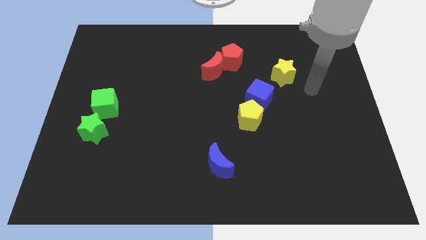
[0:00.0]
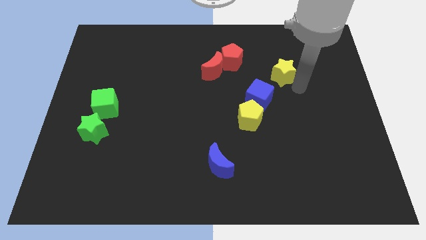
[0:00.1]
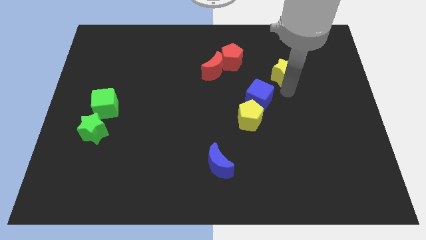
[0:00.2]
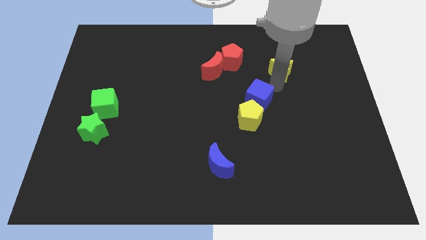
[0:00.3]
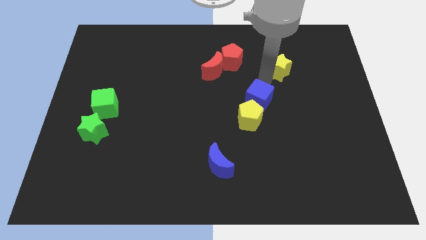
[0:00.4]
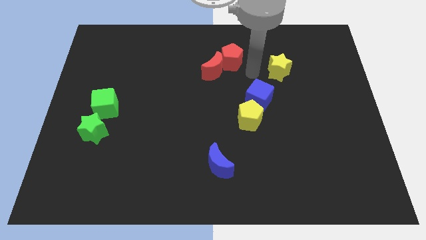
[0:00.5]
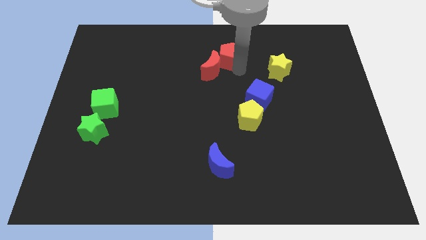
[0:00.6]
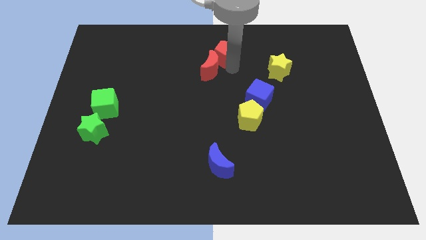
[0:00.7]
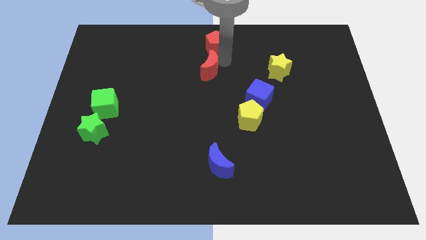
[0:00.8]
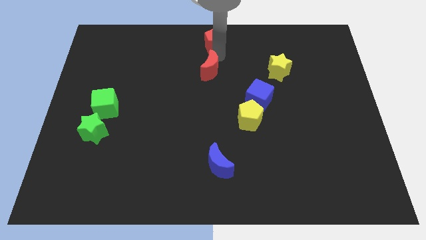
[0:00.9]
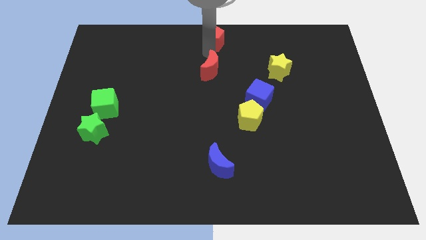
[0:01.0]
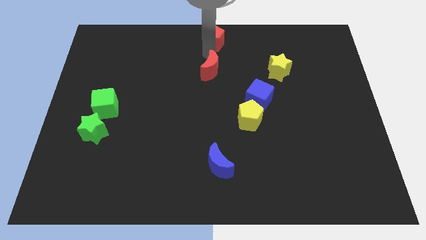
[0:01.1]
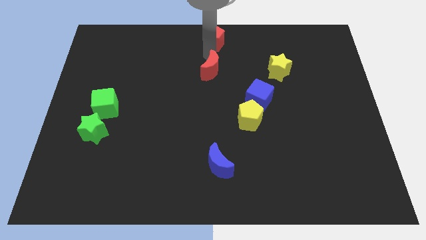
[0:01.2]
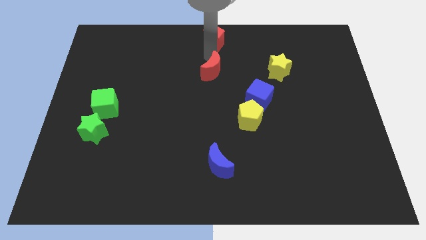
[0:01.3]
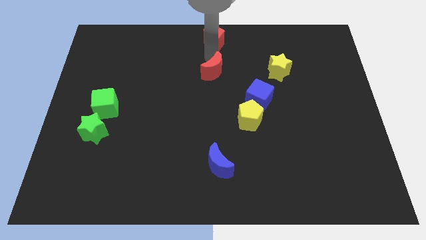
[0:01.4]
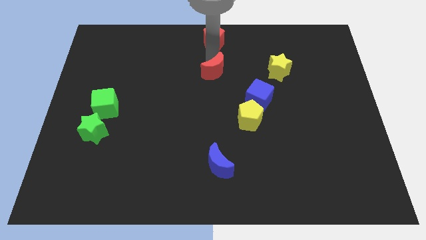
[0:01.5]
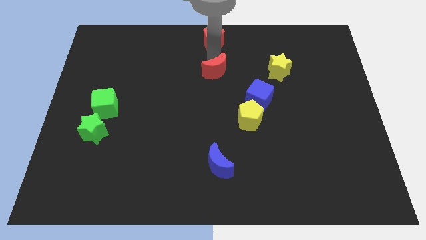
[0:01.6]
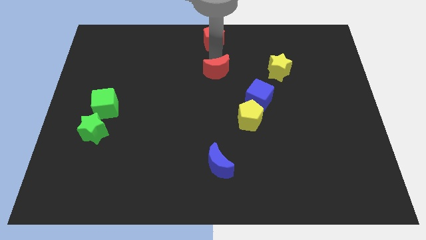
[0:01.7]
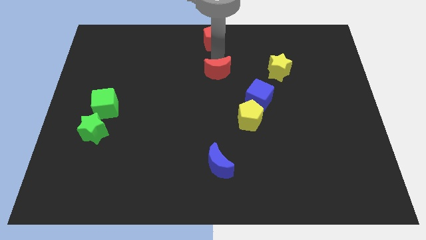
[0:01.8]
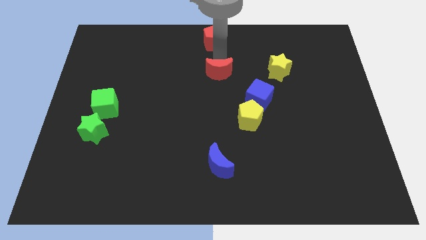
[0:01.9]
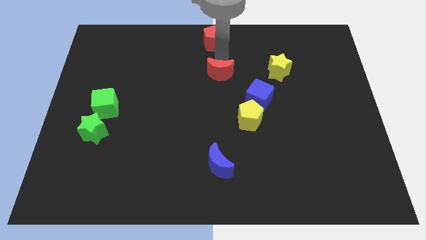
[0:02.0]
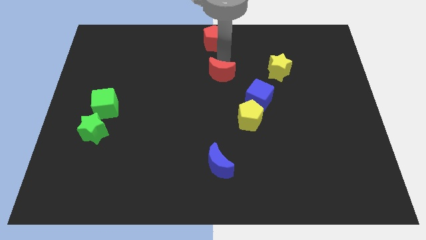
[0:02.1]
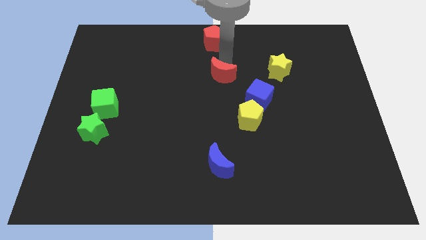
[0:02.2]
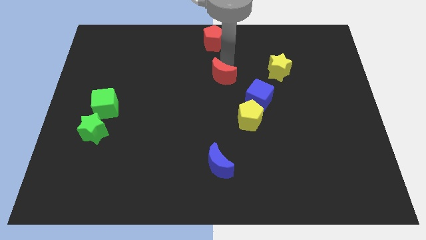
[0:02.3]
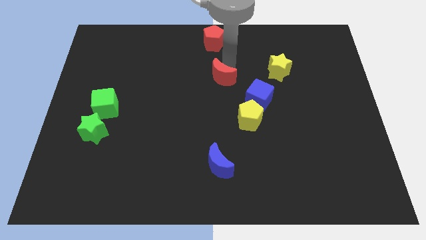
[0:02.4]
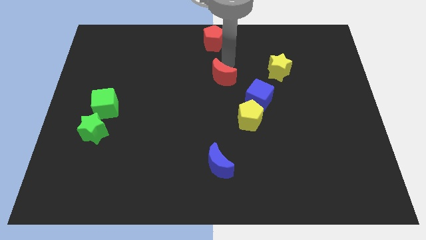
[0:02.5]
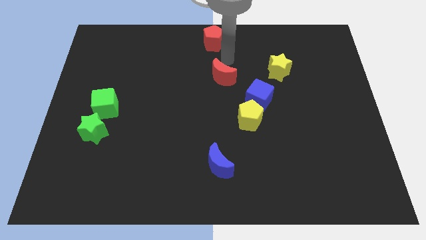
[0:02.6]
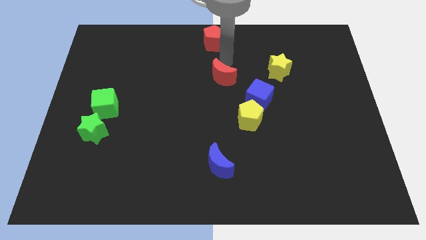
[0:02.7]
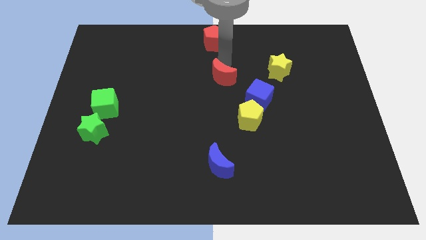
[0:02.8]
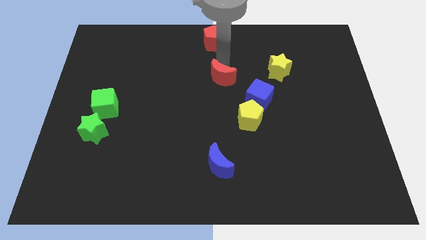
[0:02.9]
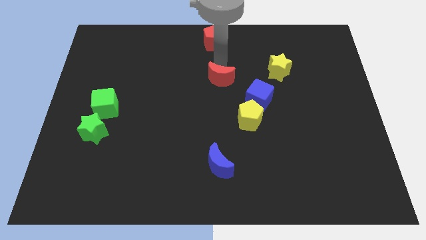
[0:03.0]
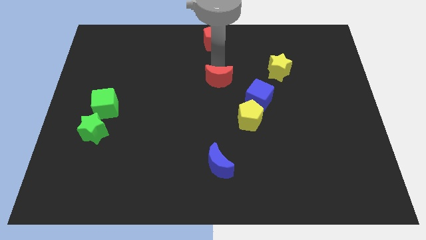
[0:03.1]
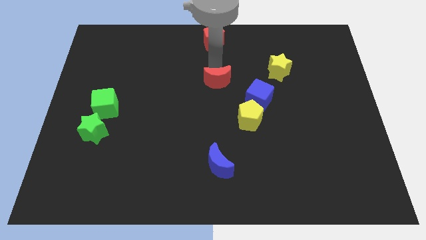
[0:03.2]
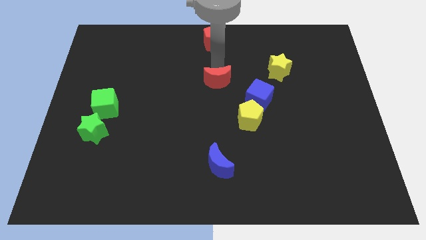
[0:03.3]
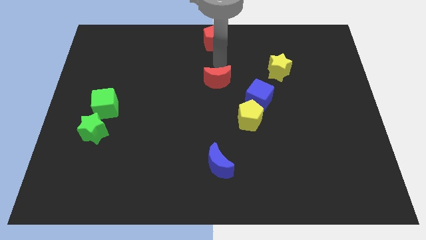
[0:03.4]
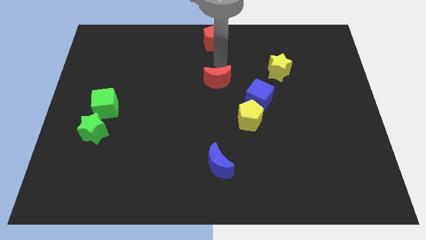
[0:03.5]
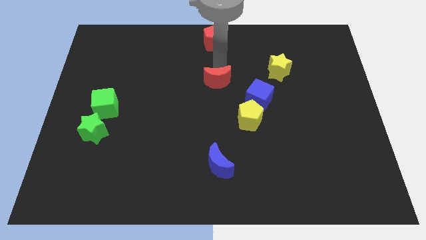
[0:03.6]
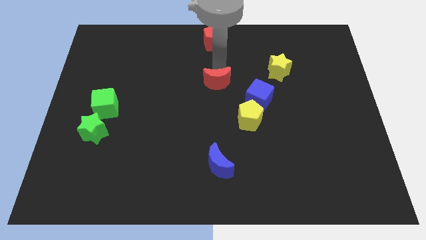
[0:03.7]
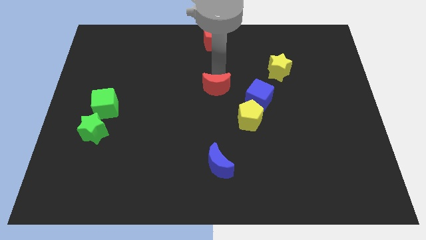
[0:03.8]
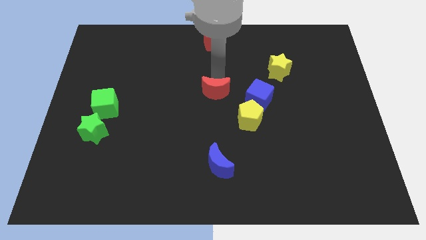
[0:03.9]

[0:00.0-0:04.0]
slightly push the red moon down

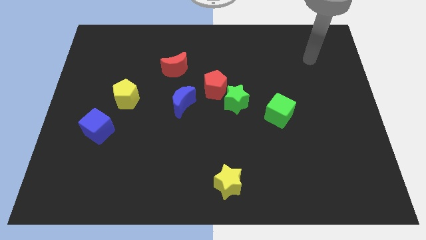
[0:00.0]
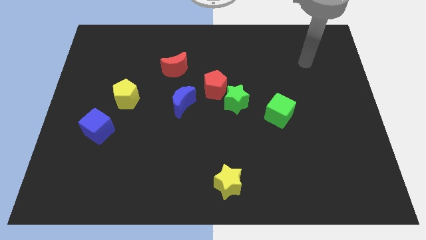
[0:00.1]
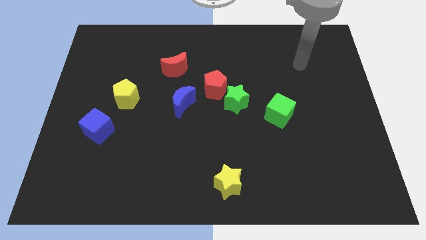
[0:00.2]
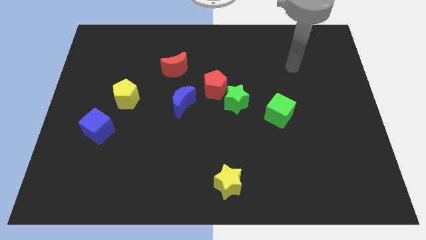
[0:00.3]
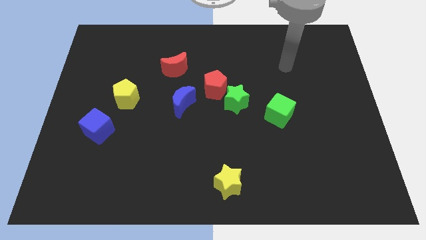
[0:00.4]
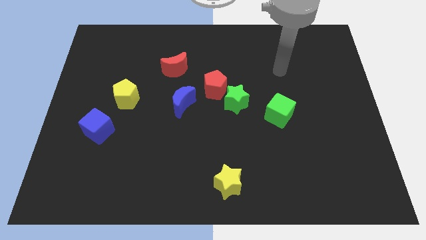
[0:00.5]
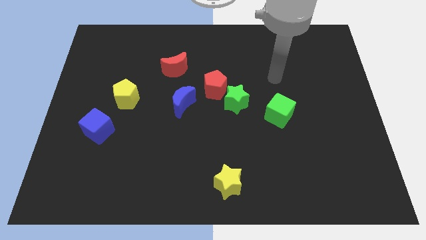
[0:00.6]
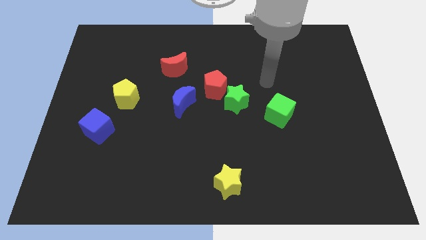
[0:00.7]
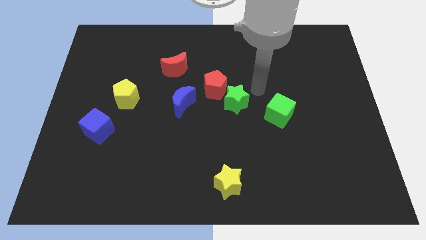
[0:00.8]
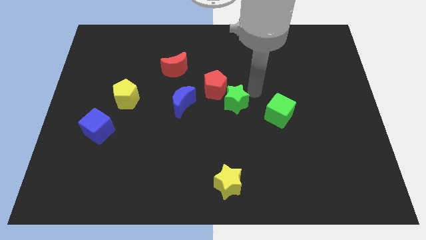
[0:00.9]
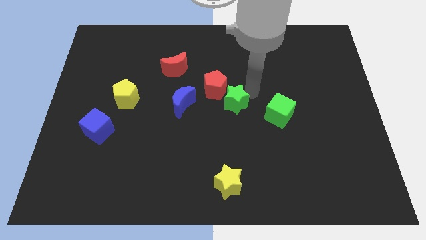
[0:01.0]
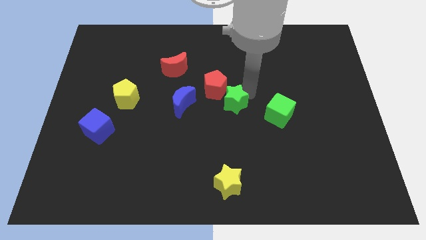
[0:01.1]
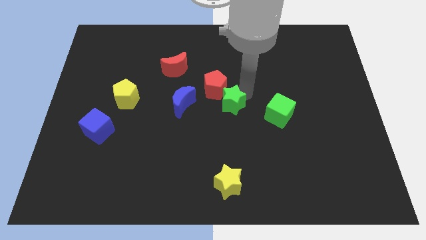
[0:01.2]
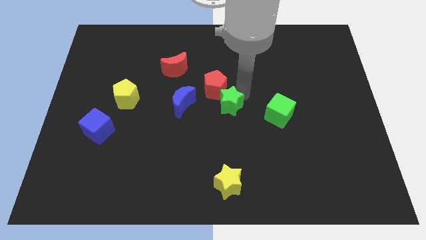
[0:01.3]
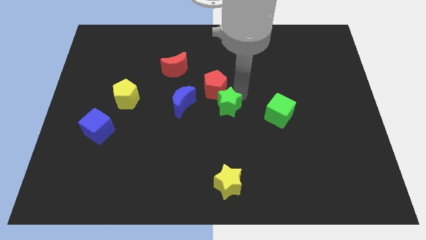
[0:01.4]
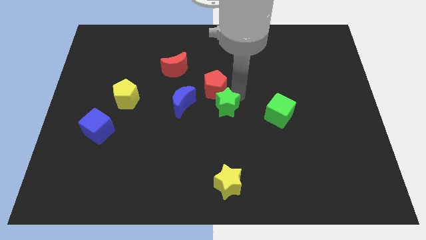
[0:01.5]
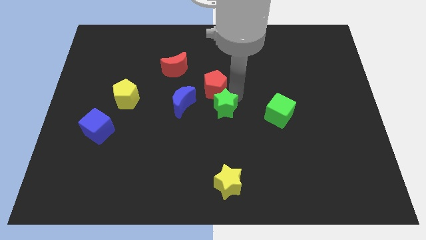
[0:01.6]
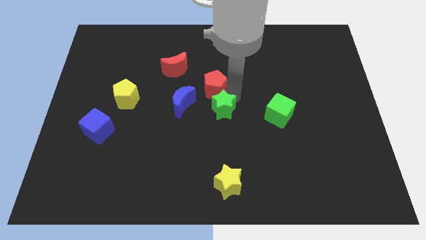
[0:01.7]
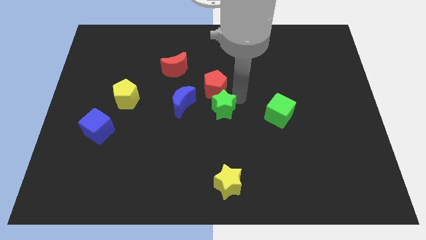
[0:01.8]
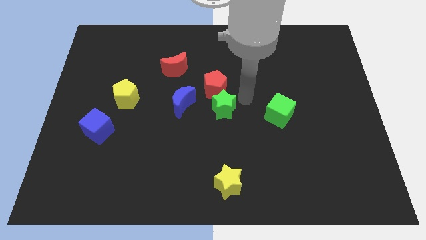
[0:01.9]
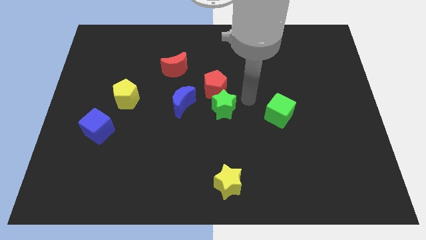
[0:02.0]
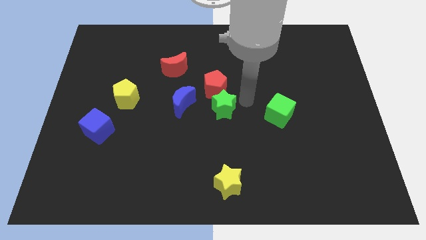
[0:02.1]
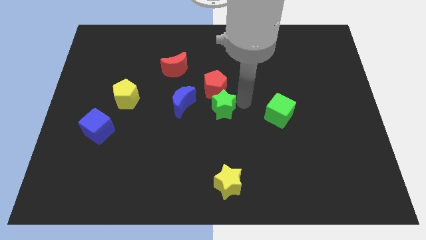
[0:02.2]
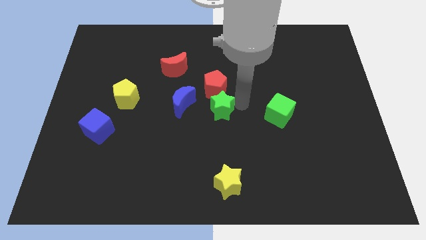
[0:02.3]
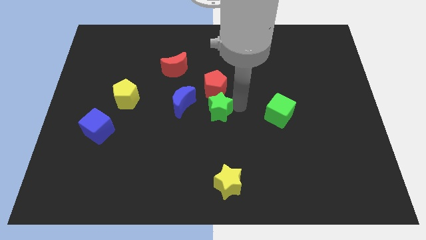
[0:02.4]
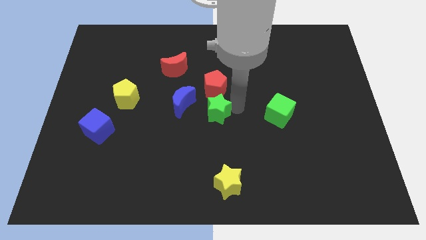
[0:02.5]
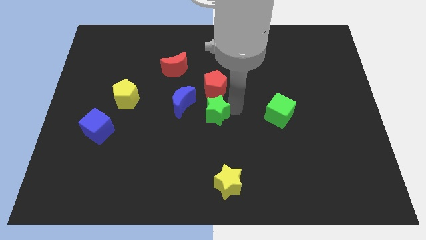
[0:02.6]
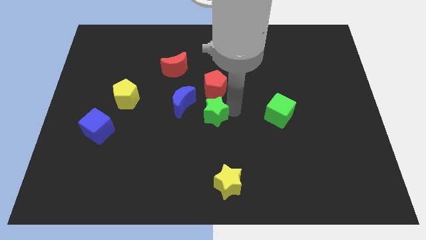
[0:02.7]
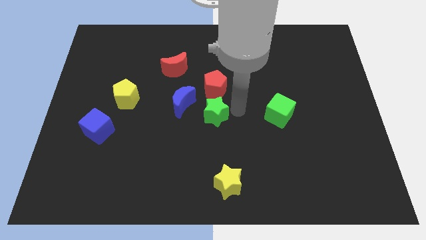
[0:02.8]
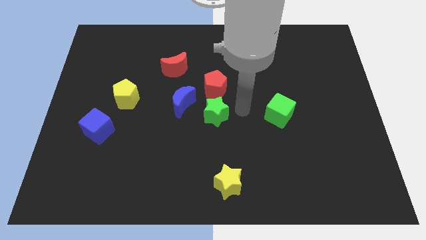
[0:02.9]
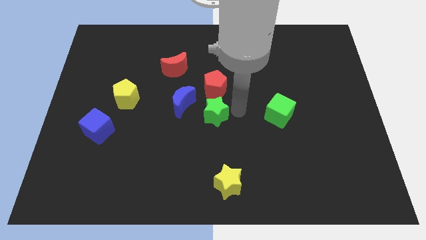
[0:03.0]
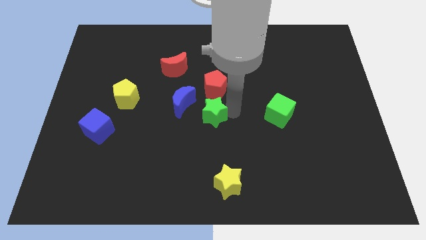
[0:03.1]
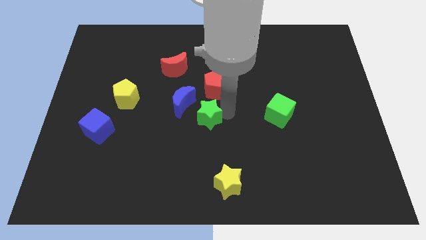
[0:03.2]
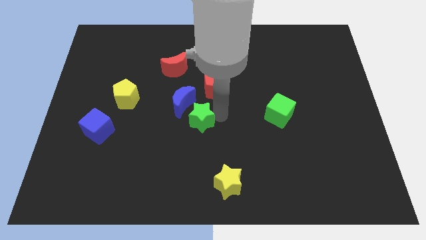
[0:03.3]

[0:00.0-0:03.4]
move the green star a little bit to the left

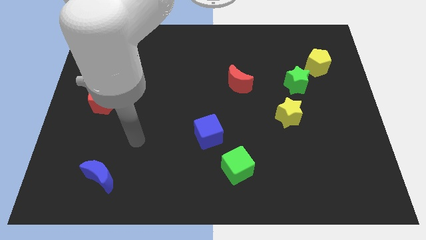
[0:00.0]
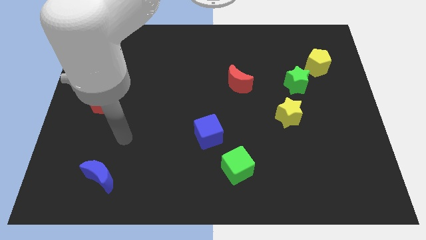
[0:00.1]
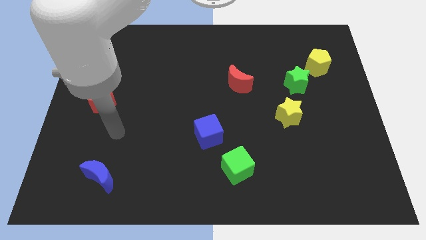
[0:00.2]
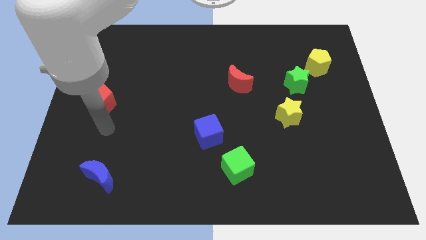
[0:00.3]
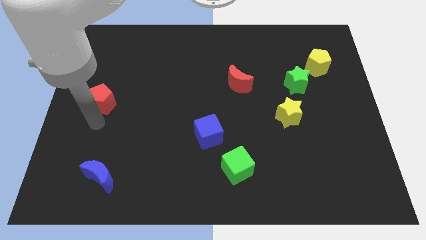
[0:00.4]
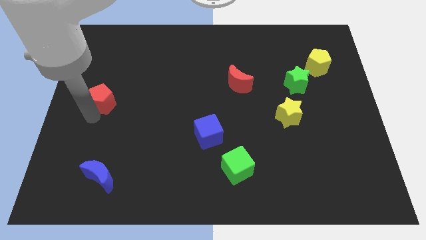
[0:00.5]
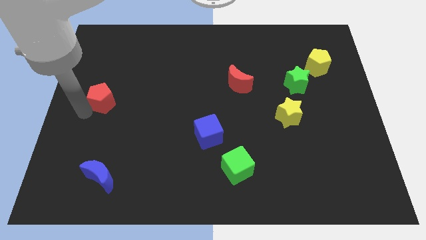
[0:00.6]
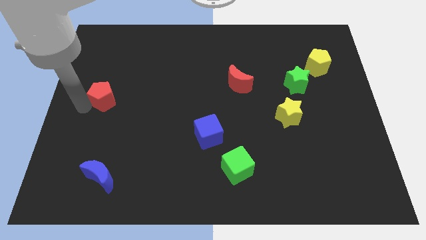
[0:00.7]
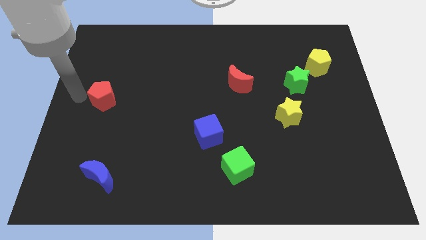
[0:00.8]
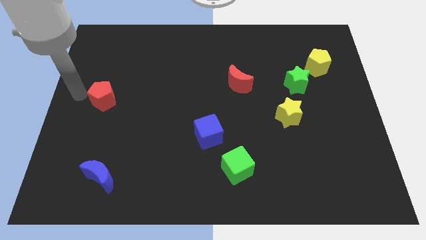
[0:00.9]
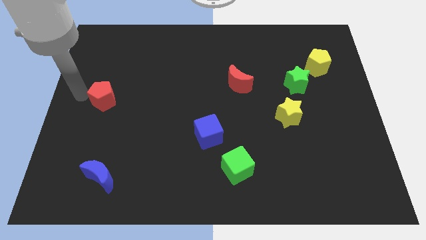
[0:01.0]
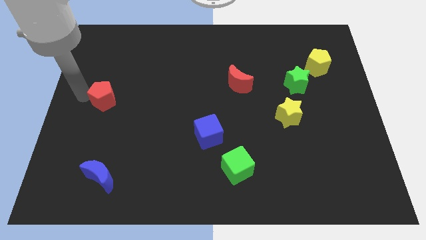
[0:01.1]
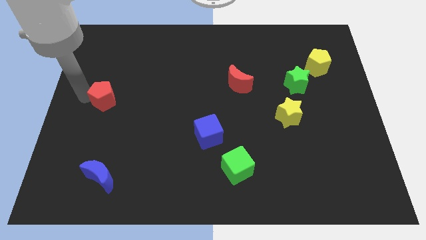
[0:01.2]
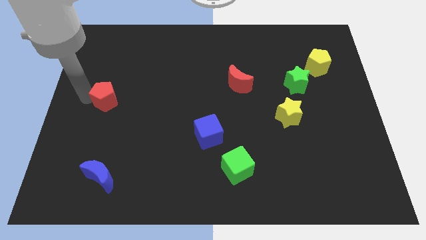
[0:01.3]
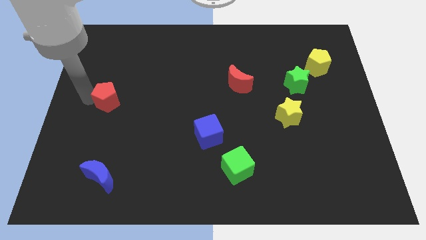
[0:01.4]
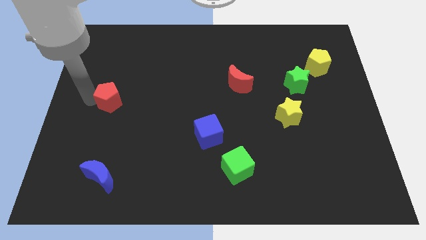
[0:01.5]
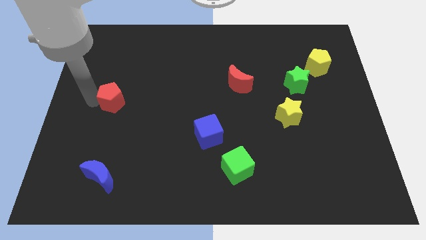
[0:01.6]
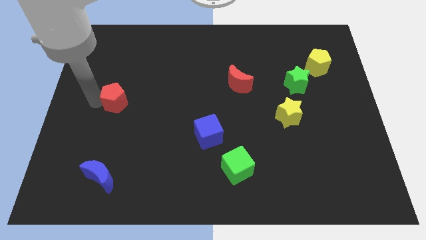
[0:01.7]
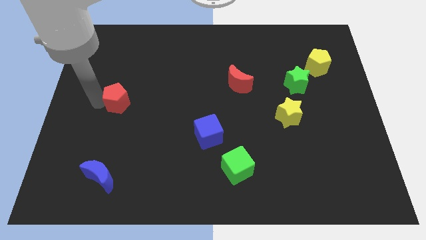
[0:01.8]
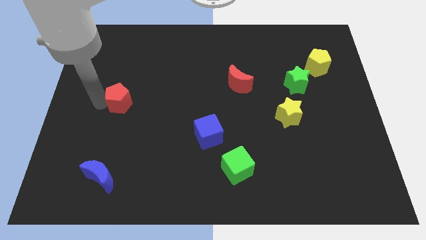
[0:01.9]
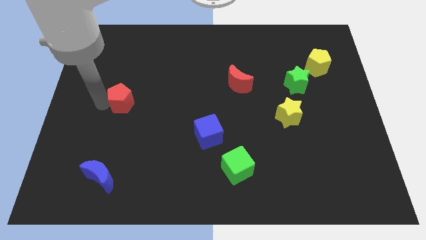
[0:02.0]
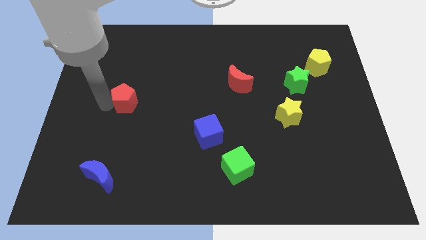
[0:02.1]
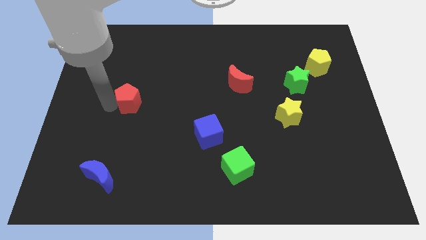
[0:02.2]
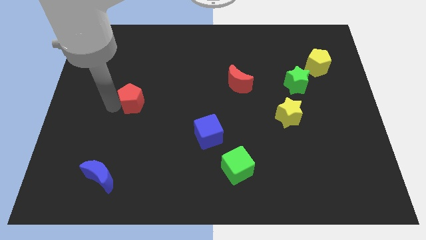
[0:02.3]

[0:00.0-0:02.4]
move the red pentagon a little bit to the right
